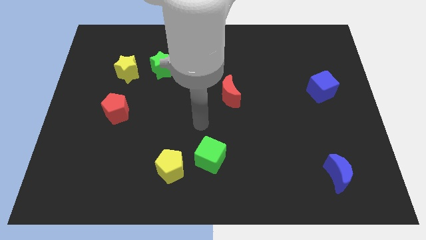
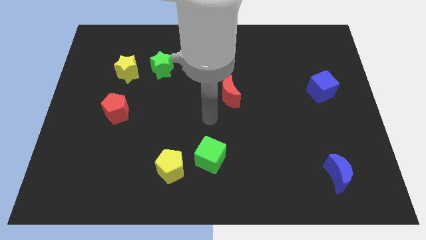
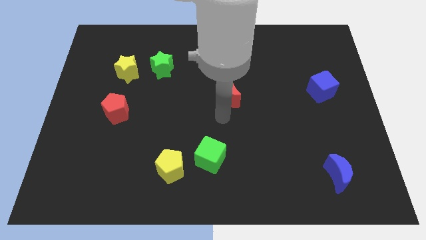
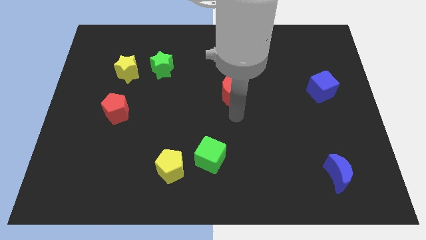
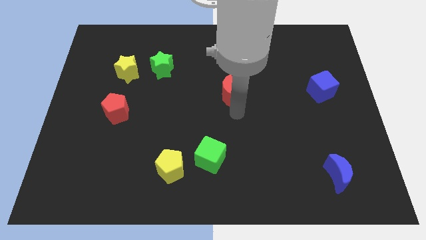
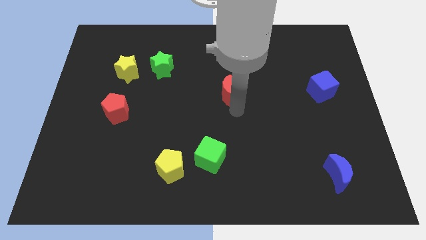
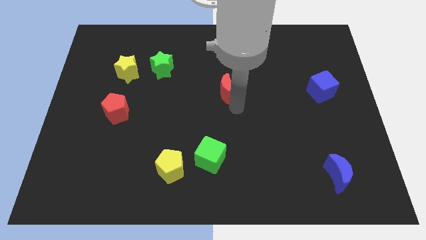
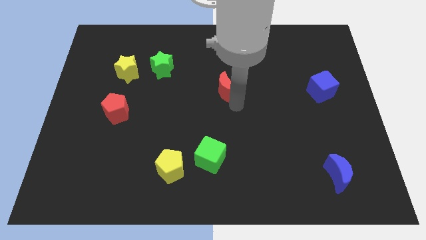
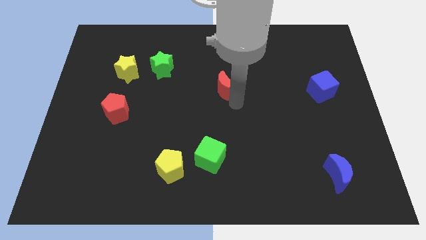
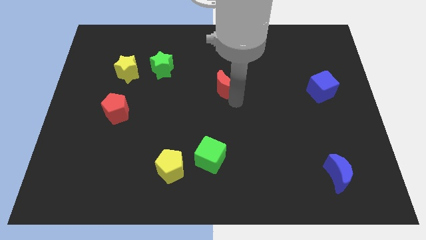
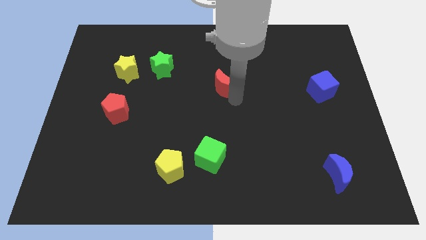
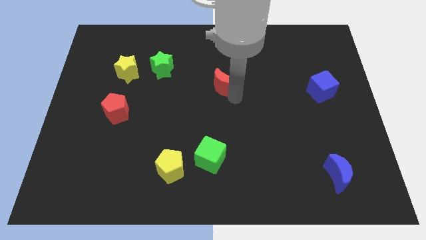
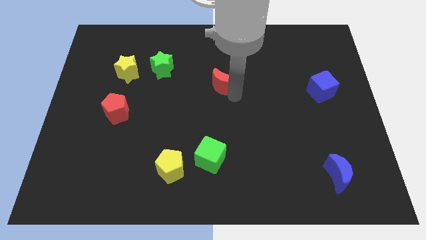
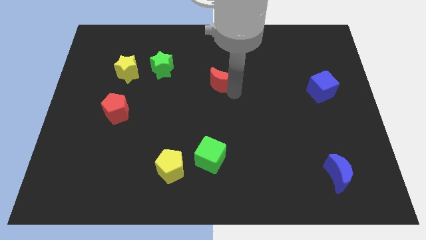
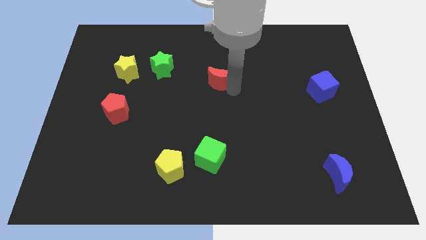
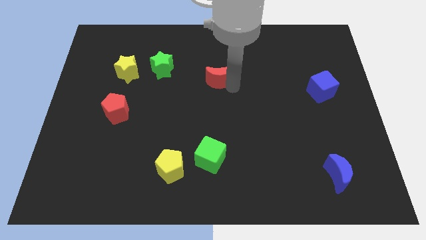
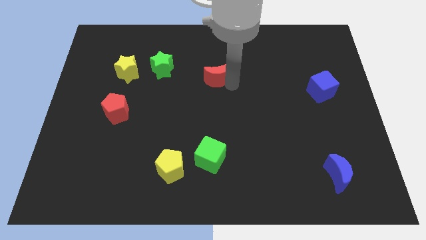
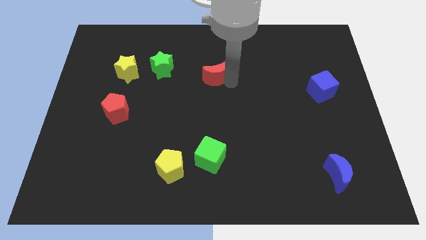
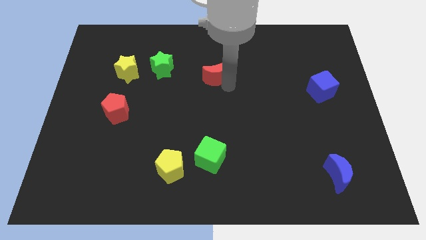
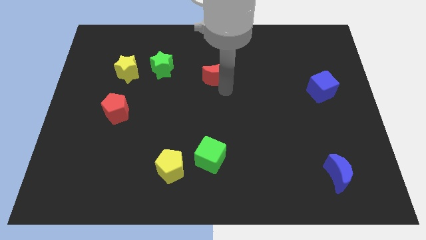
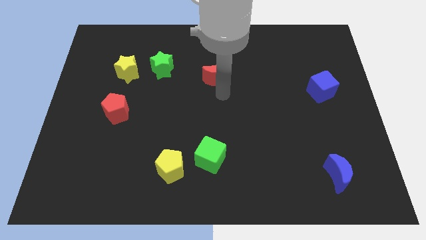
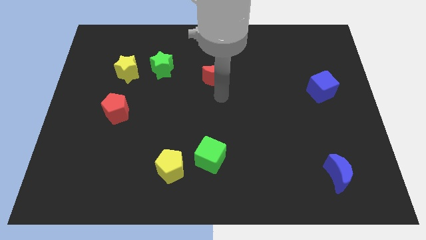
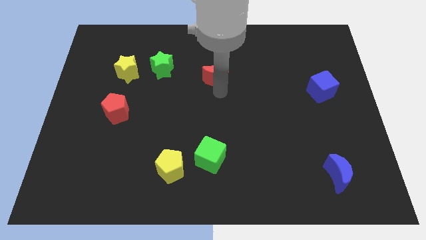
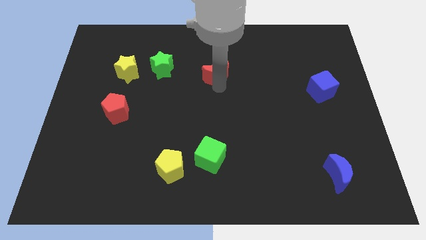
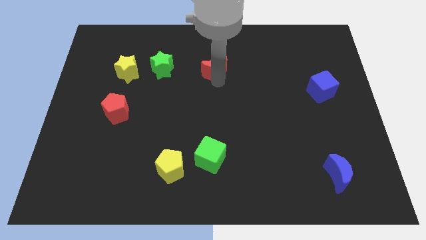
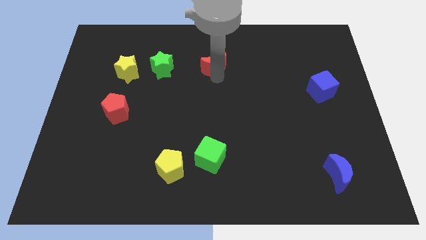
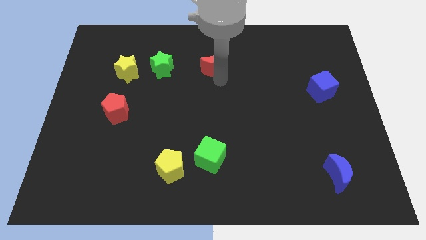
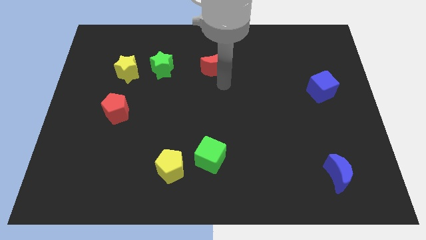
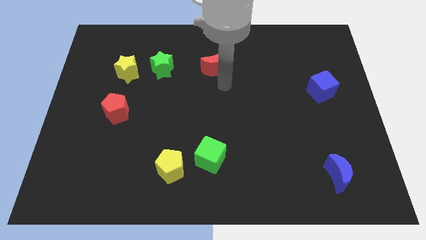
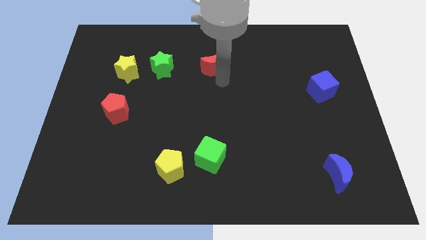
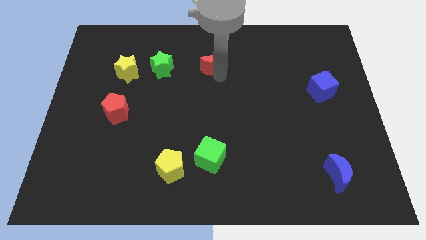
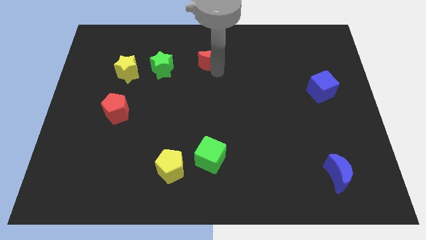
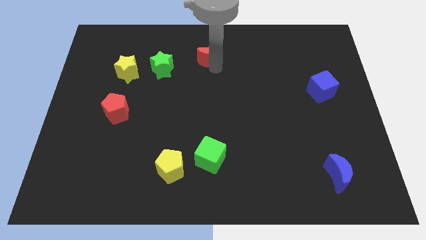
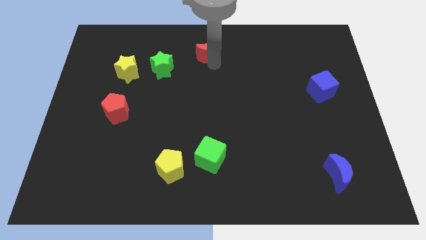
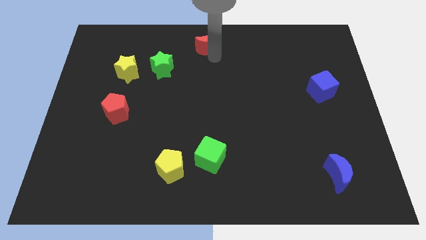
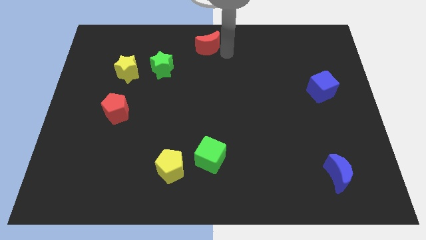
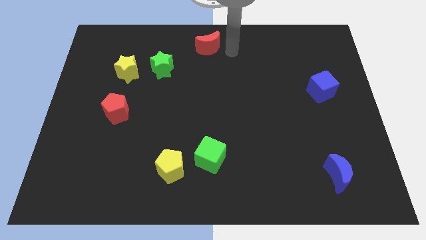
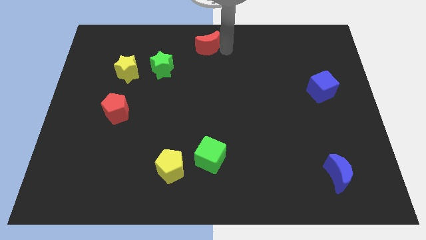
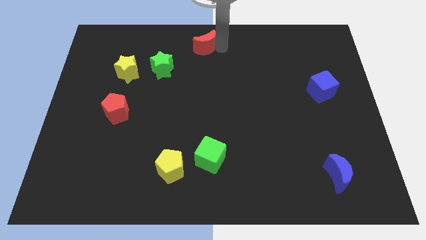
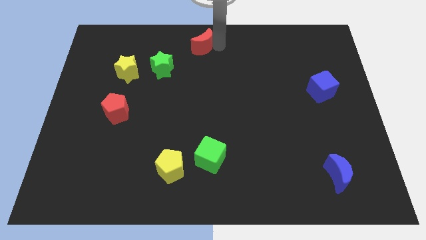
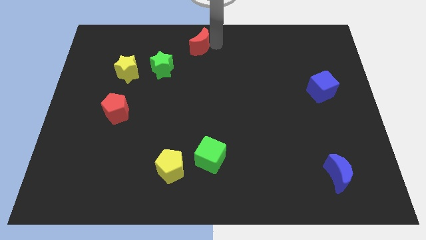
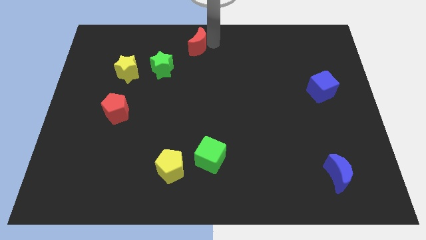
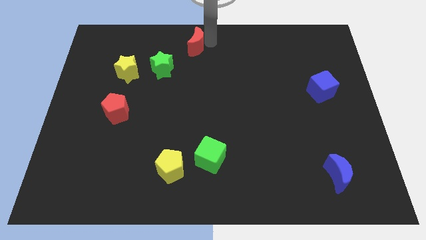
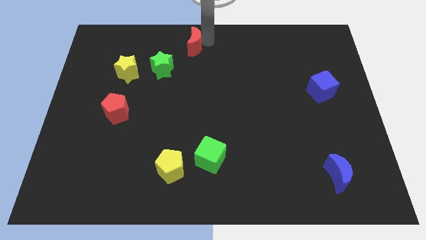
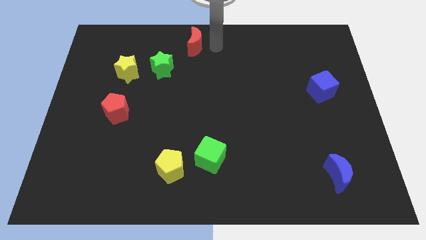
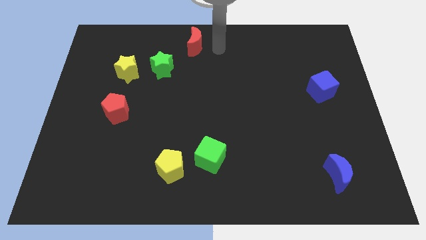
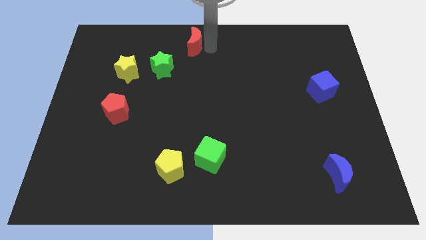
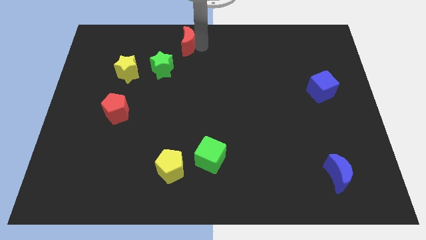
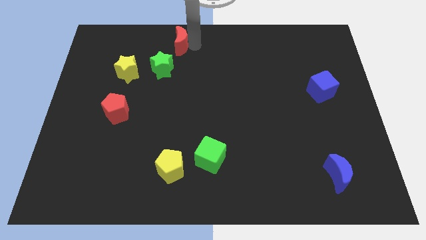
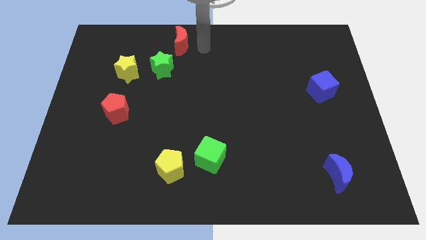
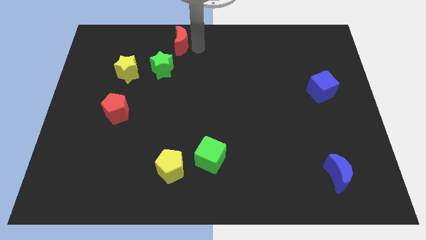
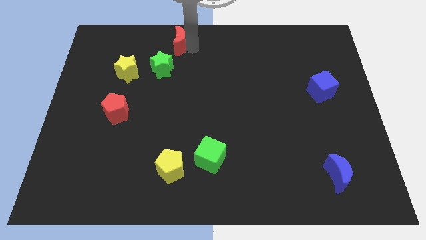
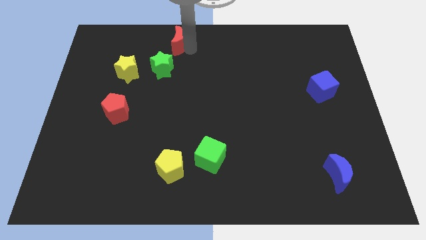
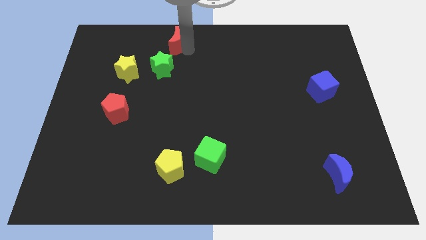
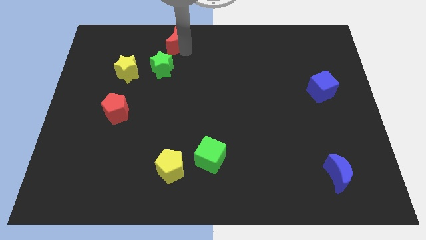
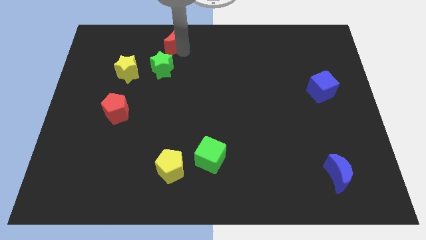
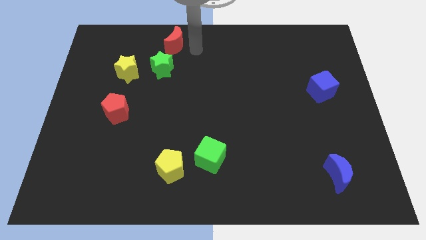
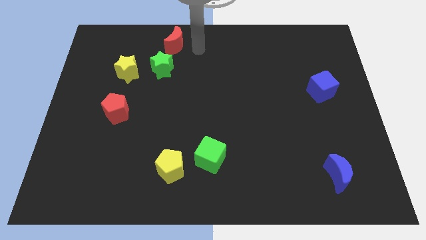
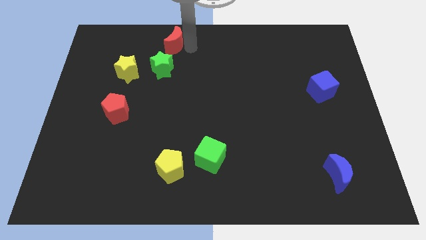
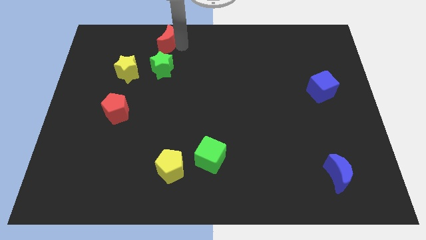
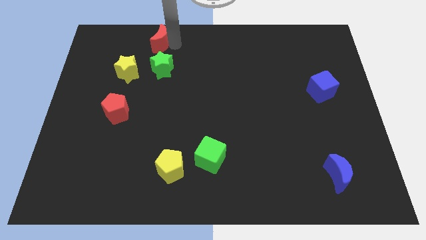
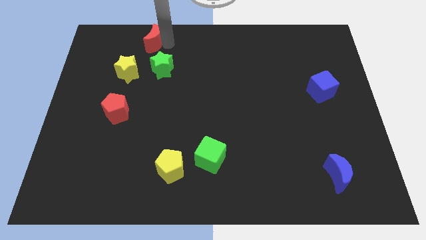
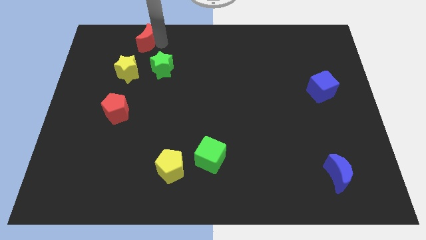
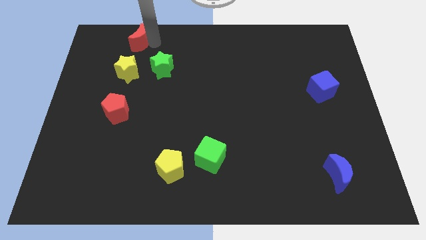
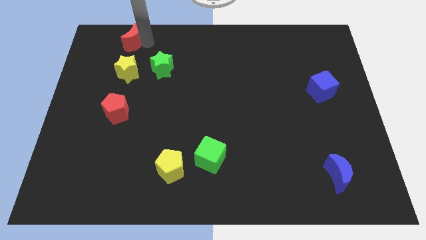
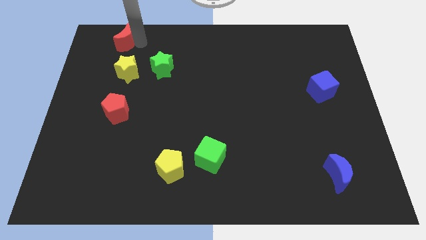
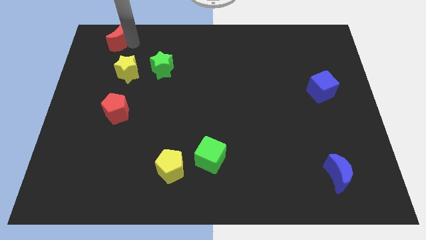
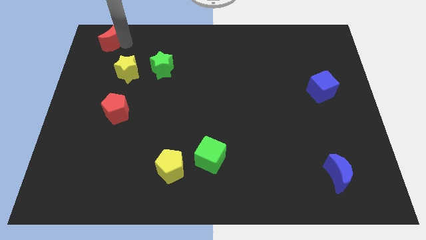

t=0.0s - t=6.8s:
put the red moon to the top left corner
